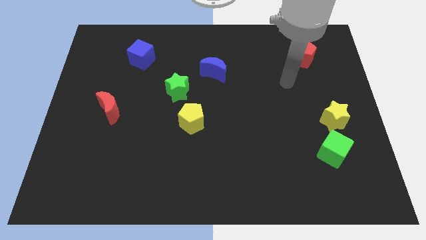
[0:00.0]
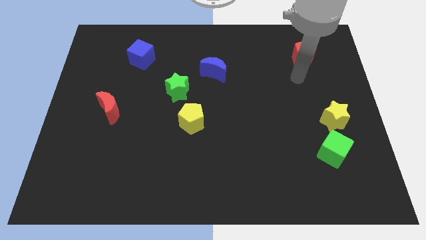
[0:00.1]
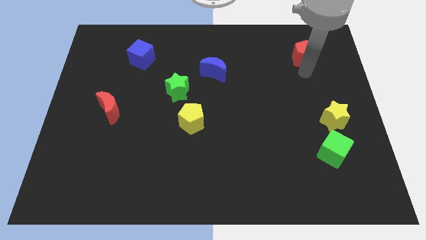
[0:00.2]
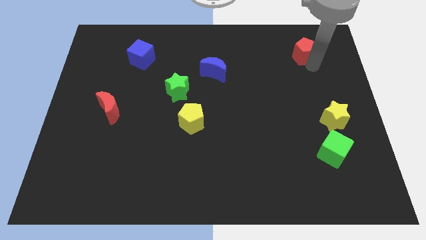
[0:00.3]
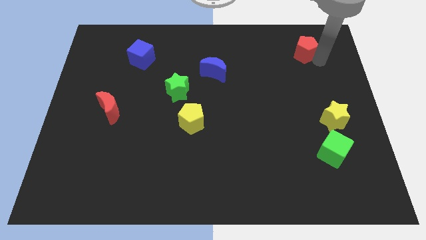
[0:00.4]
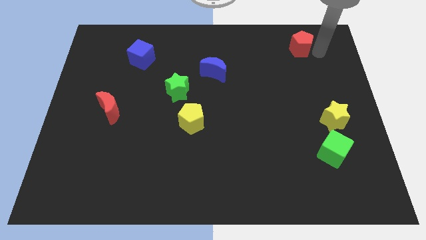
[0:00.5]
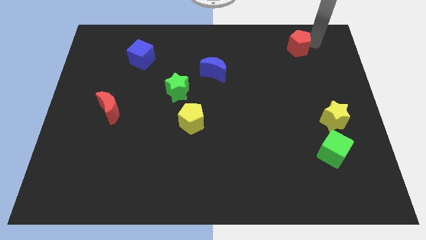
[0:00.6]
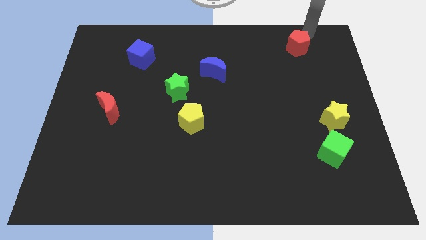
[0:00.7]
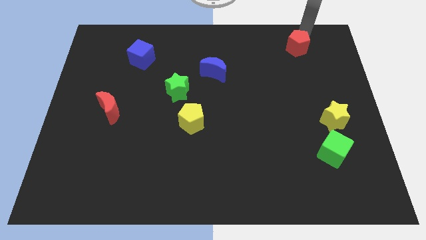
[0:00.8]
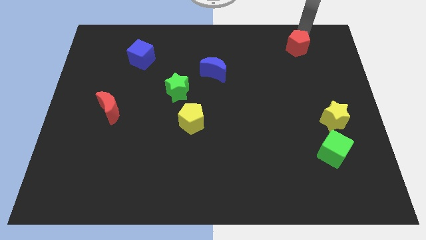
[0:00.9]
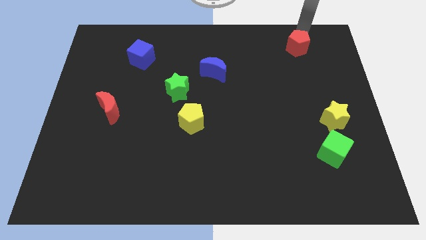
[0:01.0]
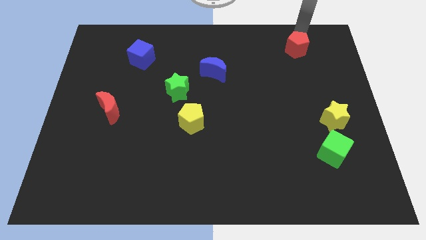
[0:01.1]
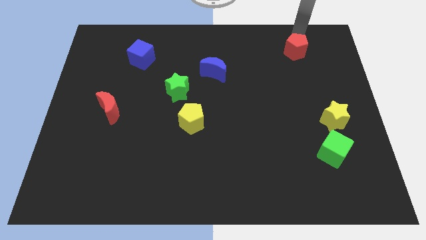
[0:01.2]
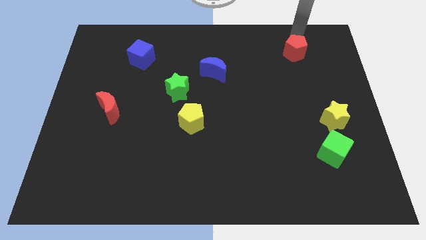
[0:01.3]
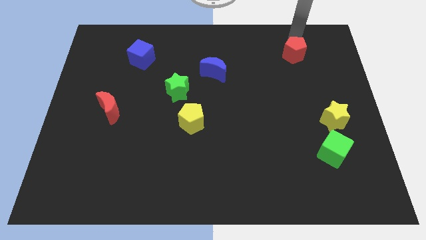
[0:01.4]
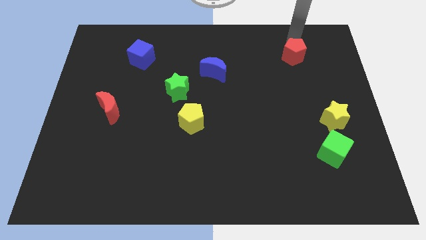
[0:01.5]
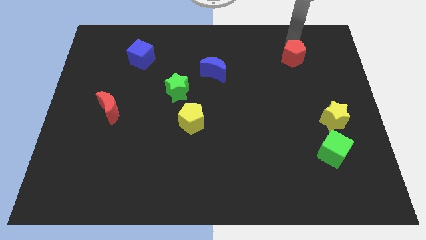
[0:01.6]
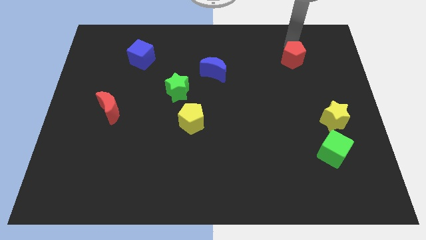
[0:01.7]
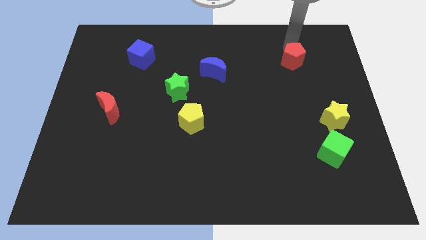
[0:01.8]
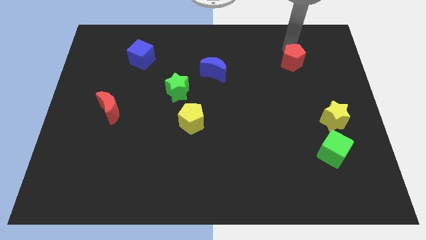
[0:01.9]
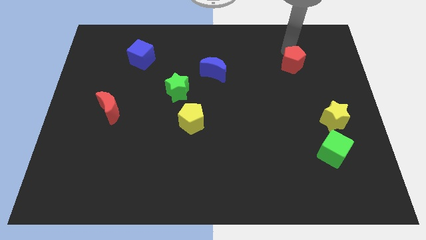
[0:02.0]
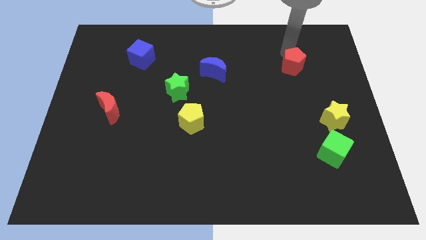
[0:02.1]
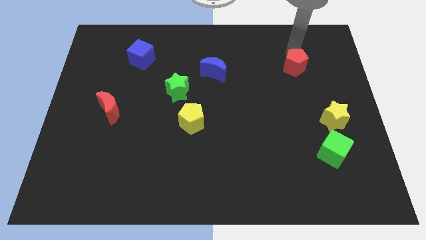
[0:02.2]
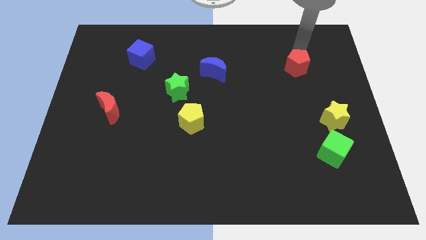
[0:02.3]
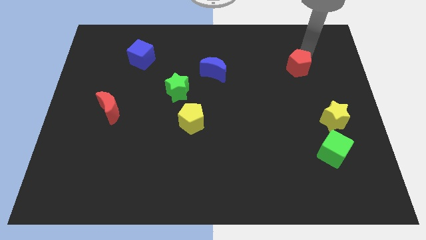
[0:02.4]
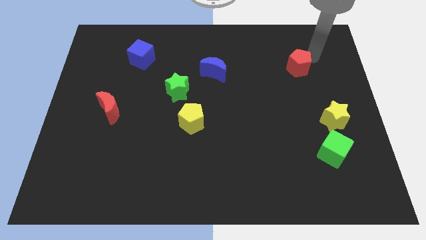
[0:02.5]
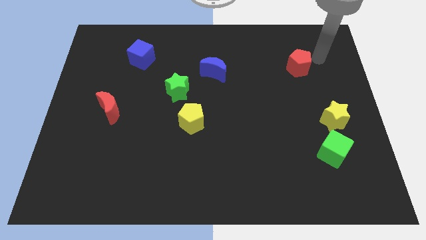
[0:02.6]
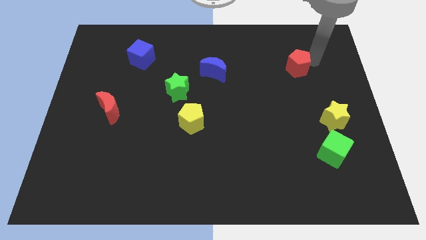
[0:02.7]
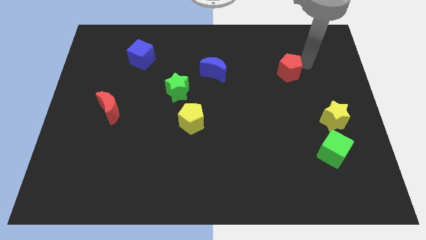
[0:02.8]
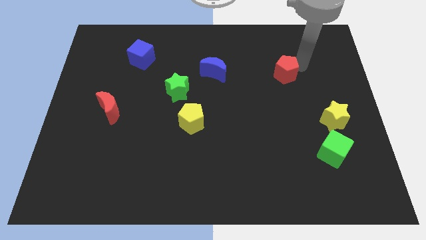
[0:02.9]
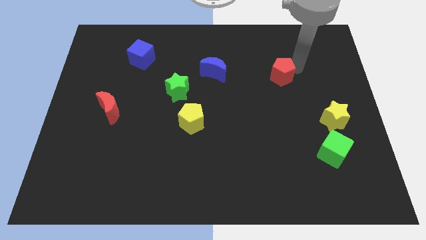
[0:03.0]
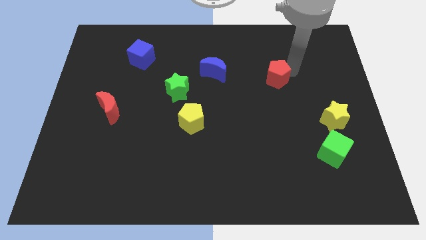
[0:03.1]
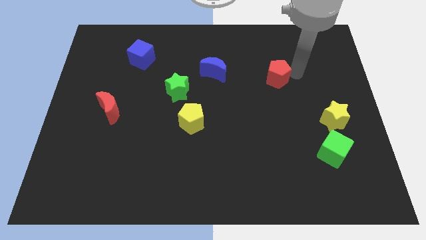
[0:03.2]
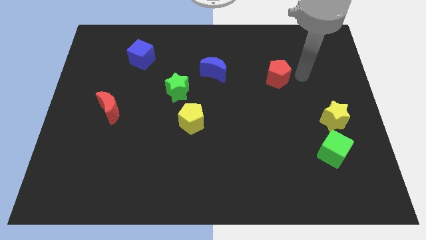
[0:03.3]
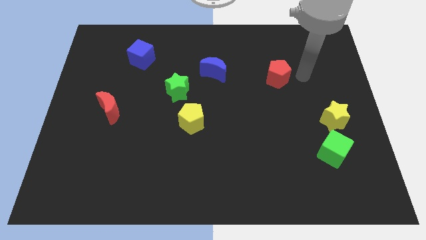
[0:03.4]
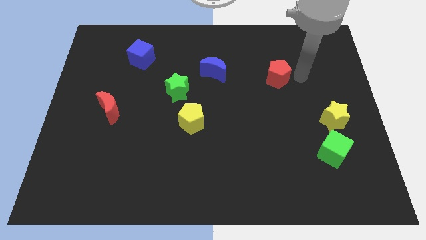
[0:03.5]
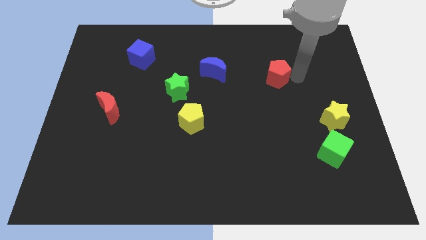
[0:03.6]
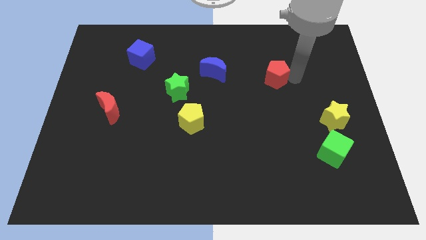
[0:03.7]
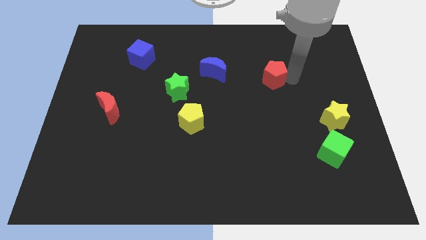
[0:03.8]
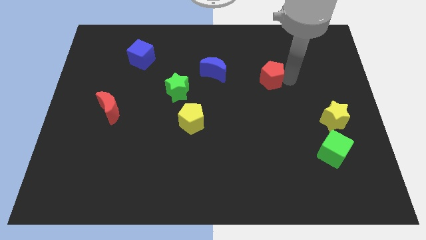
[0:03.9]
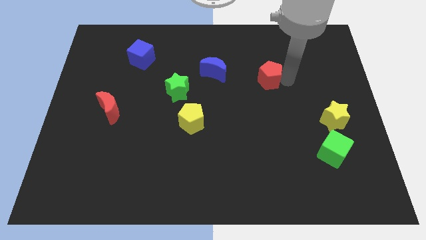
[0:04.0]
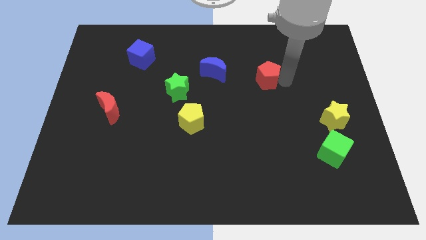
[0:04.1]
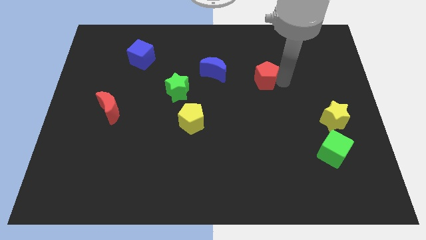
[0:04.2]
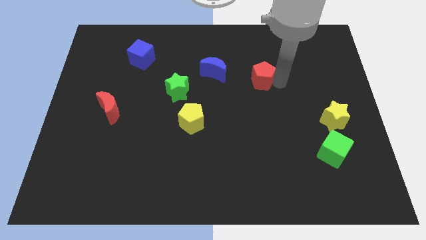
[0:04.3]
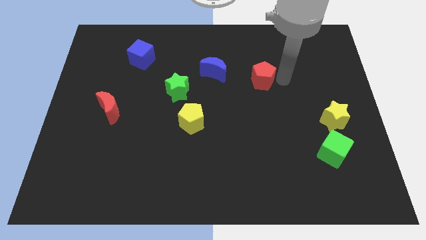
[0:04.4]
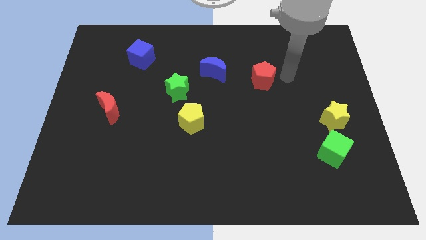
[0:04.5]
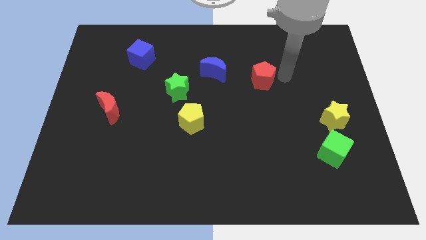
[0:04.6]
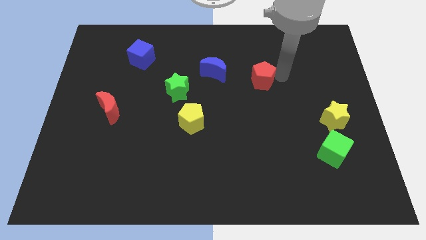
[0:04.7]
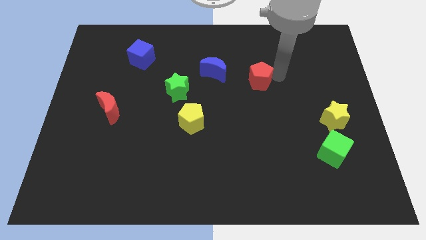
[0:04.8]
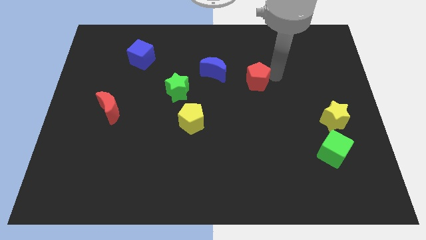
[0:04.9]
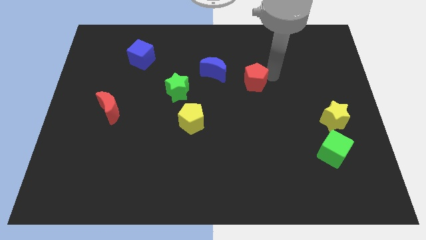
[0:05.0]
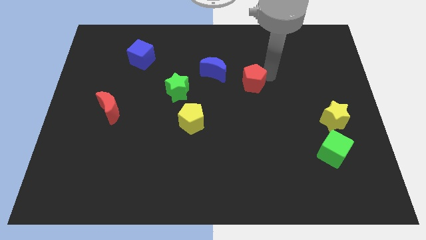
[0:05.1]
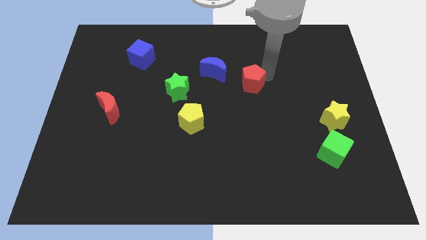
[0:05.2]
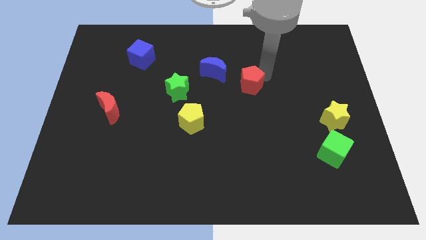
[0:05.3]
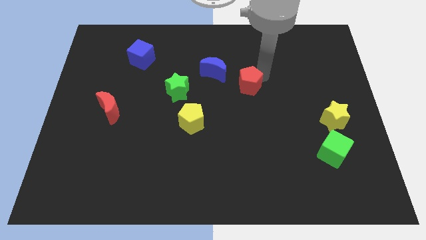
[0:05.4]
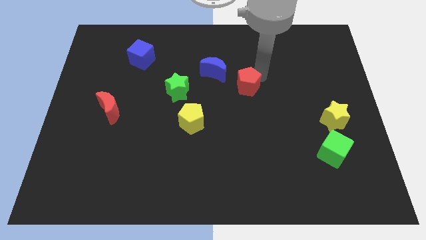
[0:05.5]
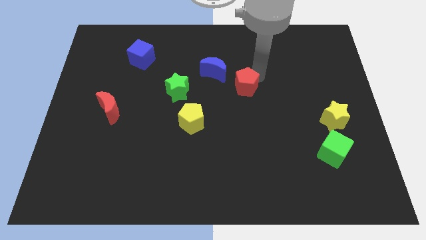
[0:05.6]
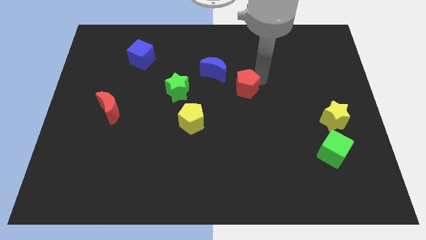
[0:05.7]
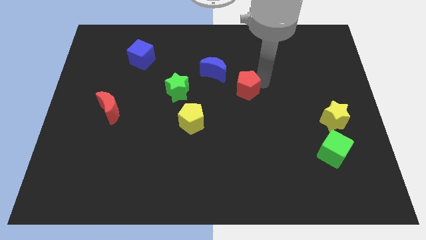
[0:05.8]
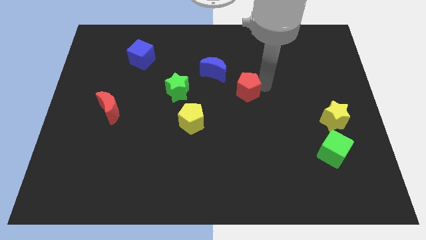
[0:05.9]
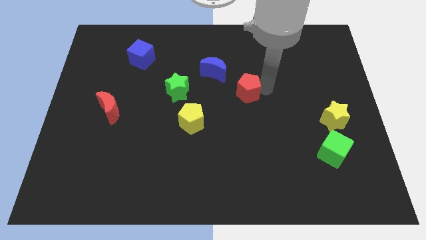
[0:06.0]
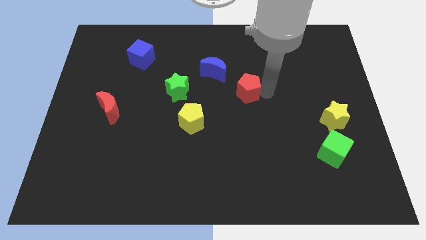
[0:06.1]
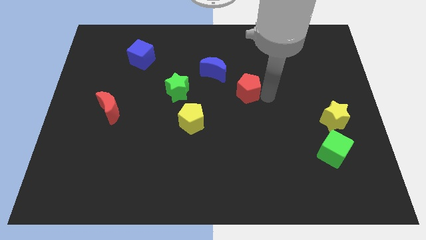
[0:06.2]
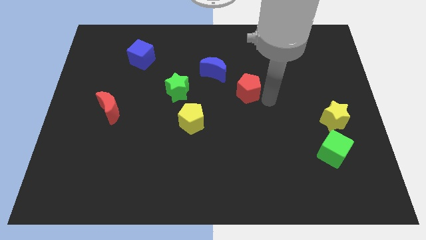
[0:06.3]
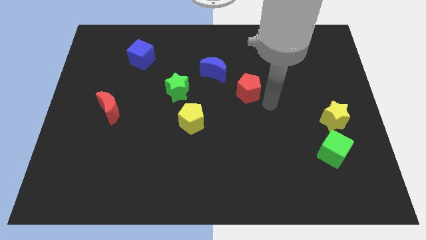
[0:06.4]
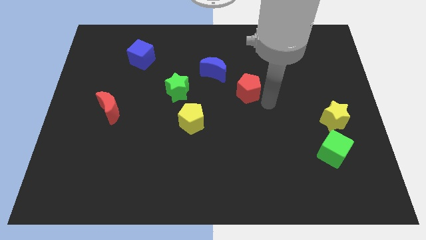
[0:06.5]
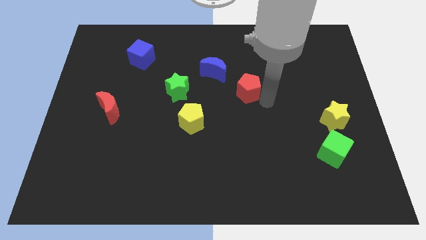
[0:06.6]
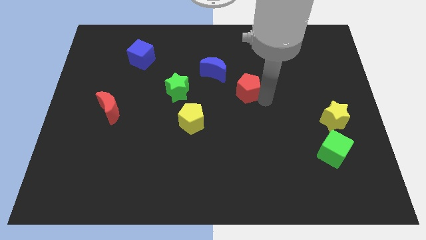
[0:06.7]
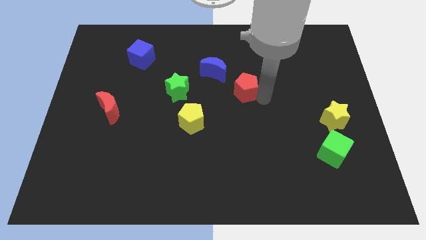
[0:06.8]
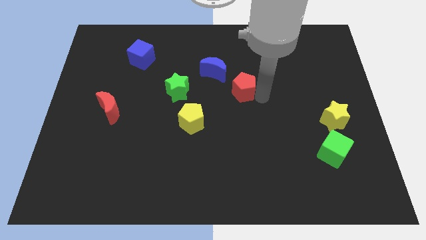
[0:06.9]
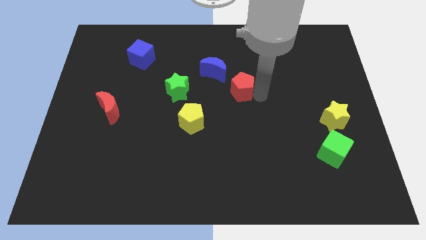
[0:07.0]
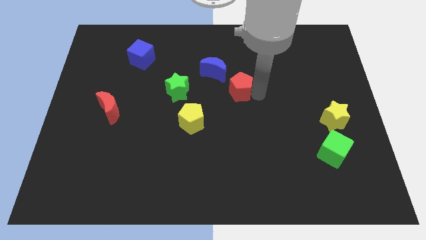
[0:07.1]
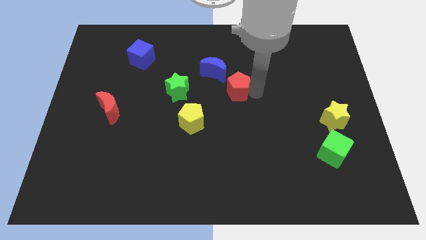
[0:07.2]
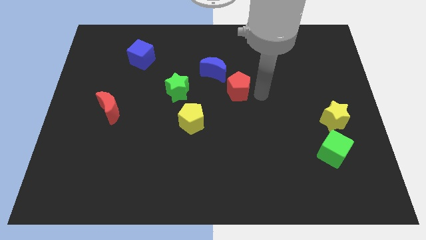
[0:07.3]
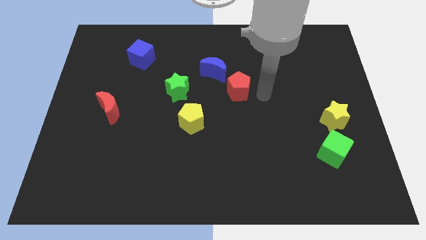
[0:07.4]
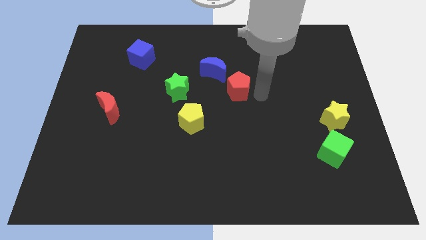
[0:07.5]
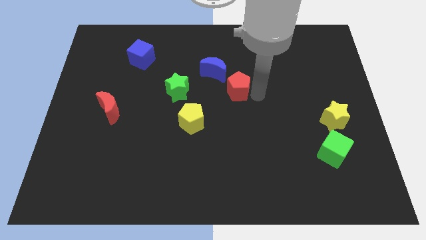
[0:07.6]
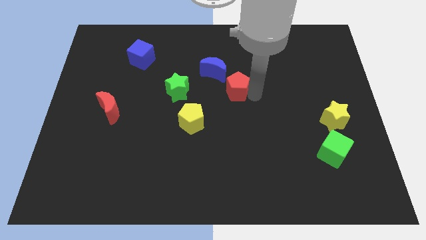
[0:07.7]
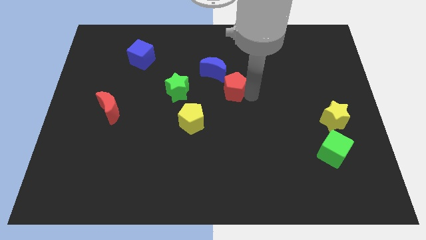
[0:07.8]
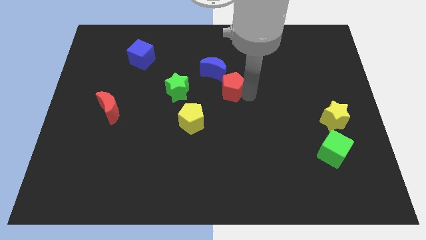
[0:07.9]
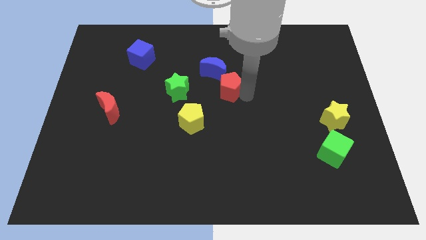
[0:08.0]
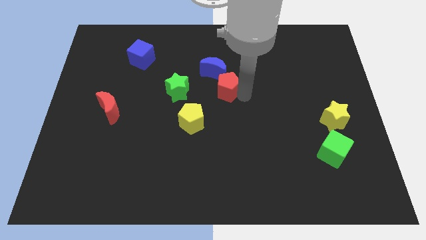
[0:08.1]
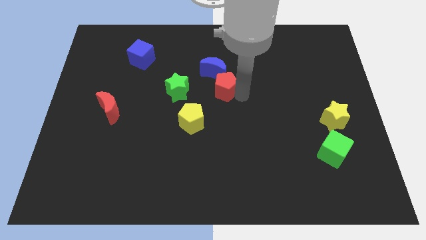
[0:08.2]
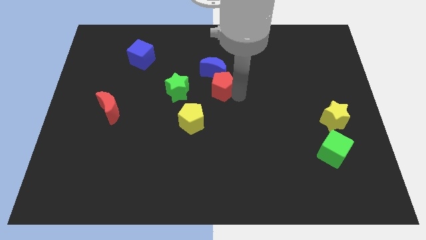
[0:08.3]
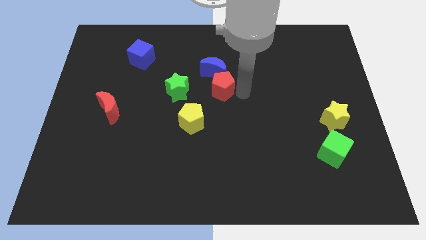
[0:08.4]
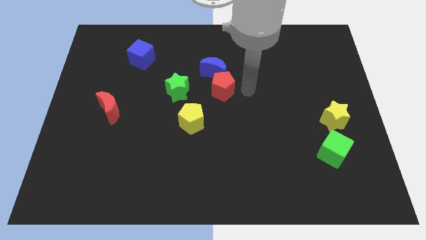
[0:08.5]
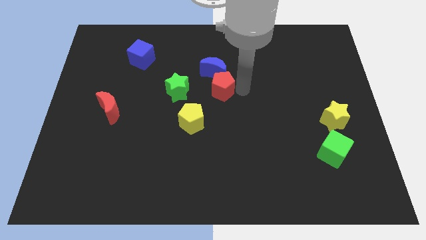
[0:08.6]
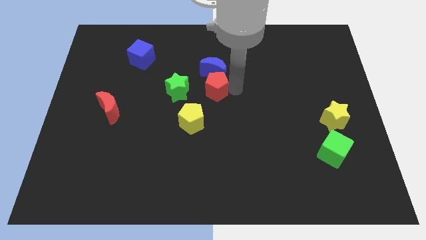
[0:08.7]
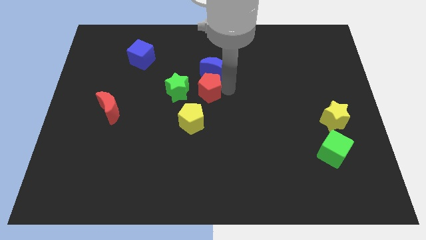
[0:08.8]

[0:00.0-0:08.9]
put the red pentagon to the top side of the yellow pentagon
